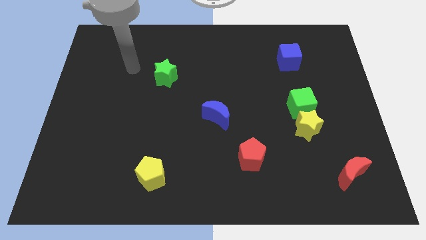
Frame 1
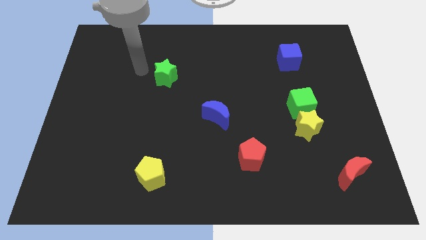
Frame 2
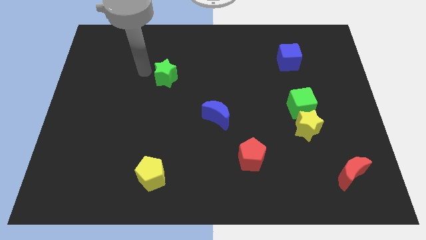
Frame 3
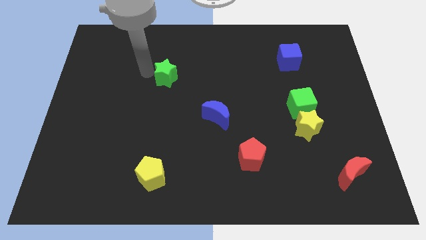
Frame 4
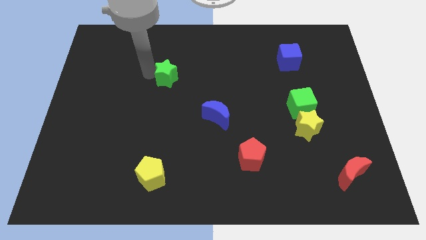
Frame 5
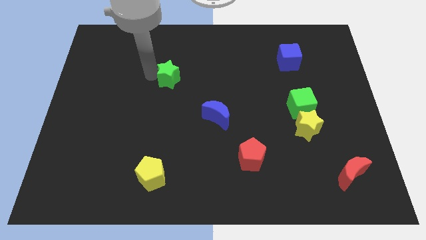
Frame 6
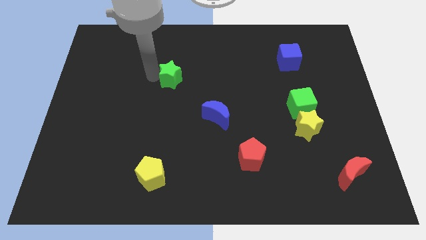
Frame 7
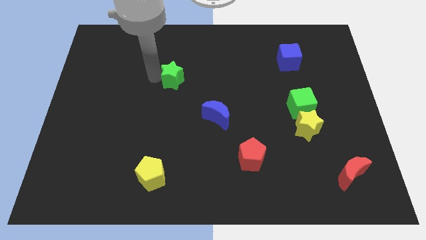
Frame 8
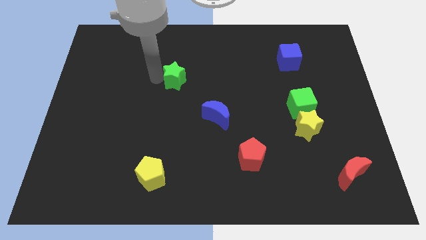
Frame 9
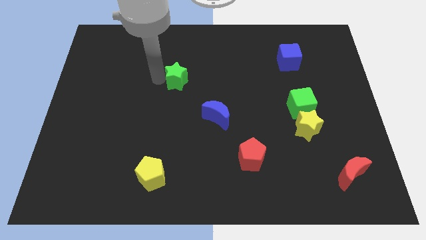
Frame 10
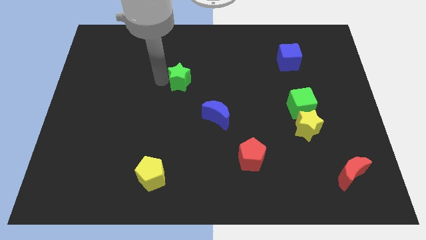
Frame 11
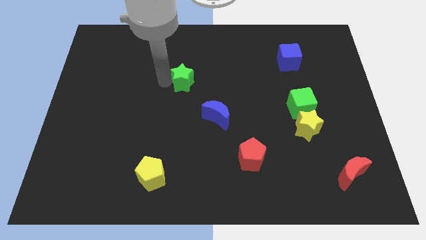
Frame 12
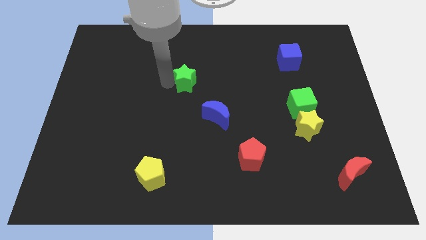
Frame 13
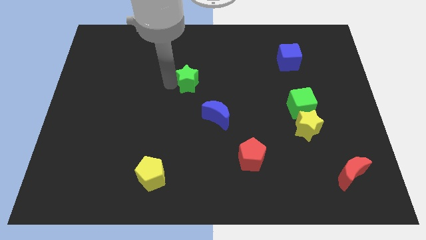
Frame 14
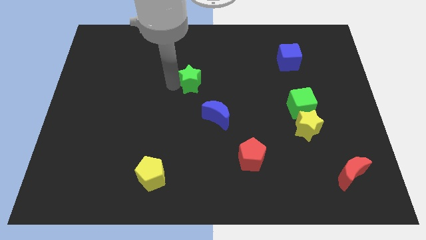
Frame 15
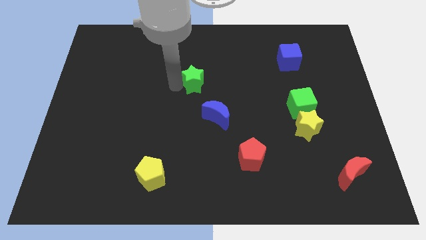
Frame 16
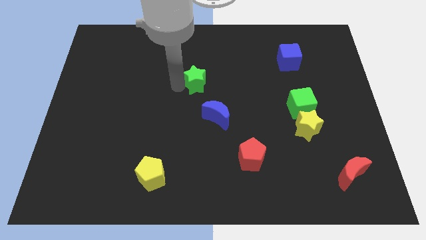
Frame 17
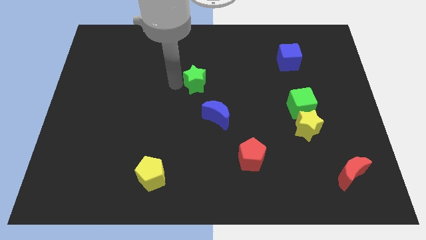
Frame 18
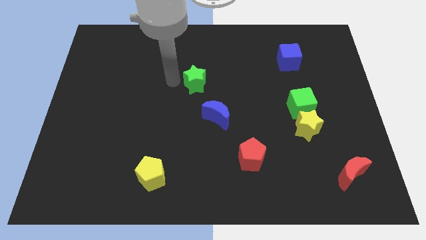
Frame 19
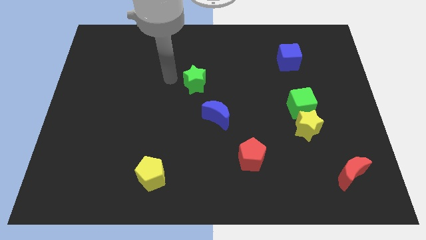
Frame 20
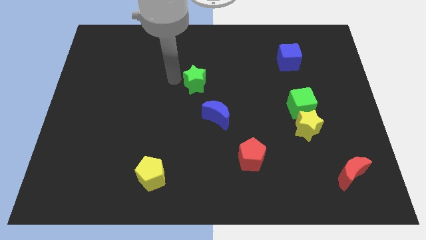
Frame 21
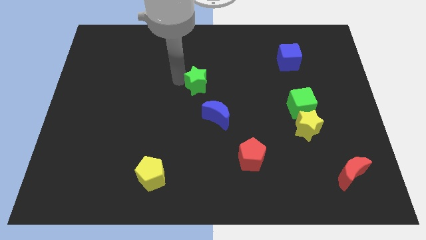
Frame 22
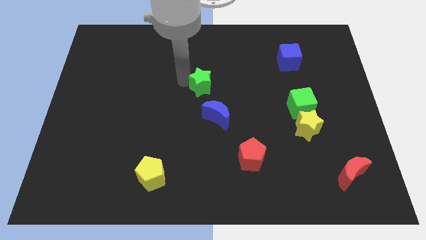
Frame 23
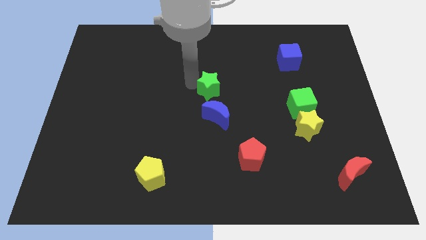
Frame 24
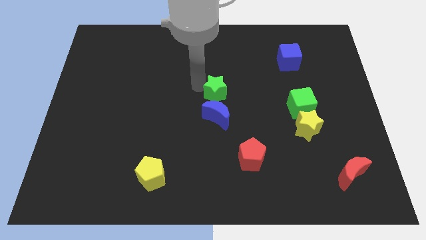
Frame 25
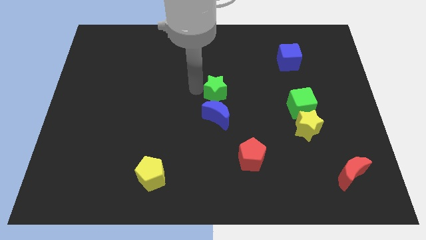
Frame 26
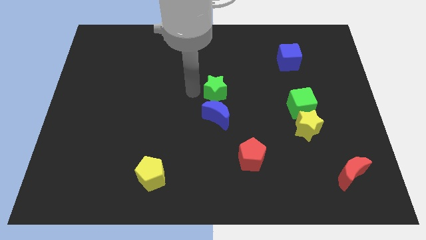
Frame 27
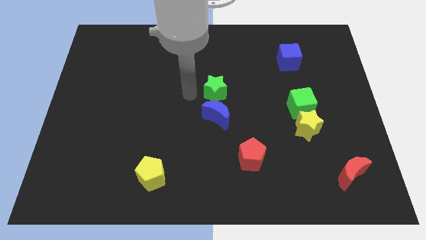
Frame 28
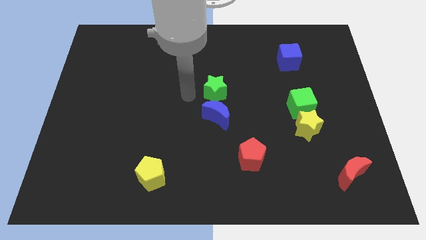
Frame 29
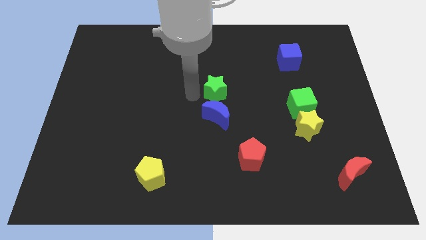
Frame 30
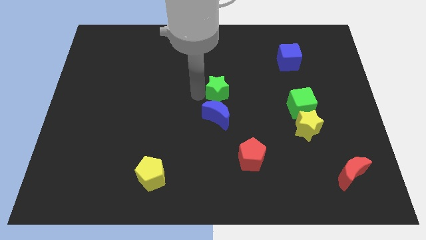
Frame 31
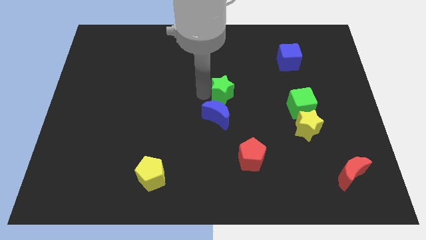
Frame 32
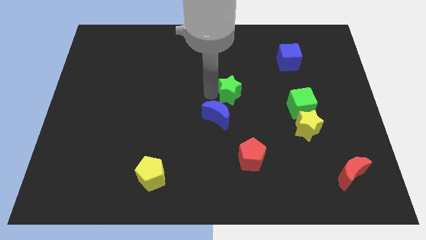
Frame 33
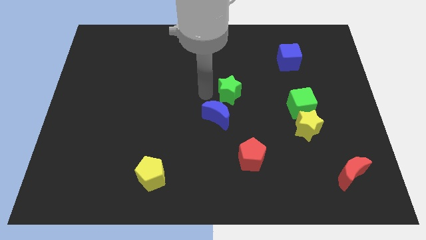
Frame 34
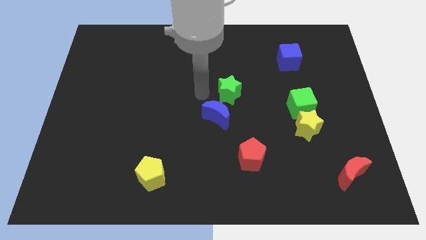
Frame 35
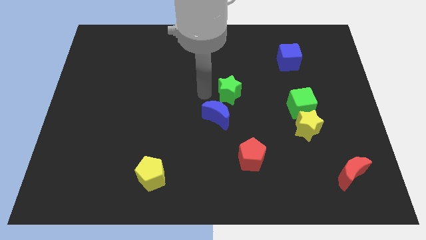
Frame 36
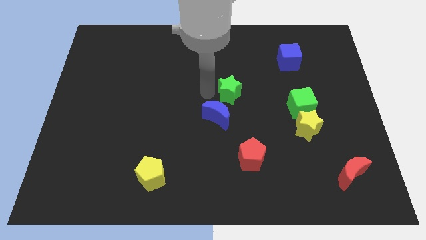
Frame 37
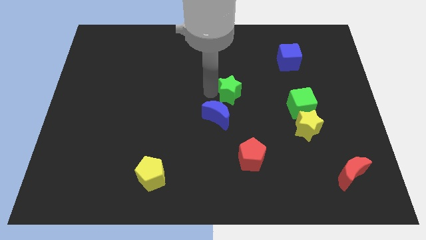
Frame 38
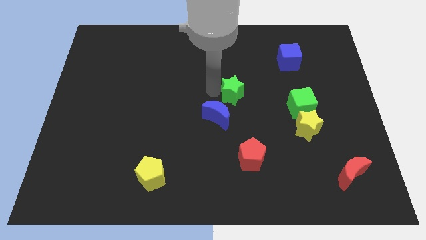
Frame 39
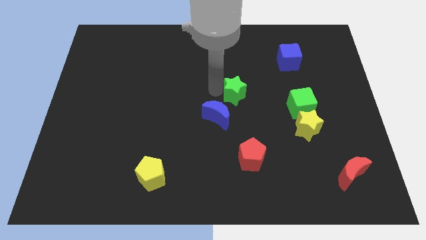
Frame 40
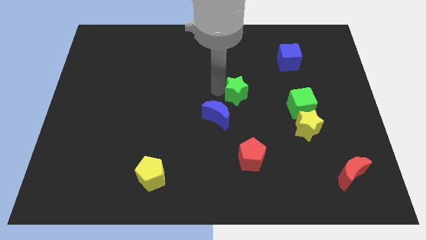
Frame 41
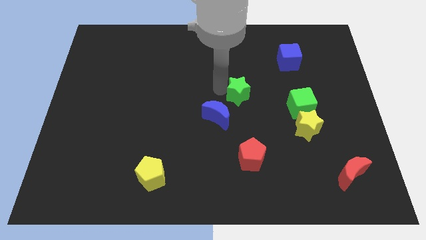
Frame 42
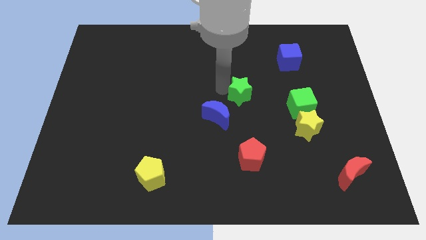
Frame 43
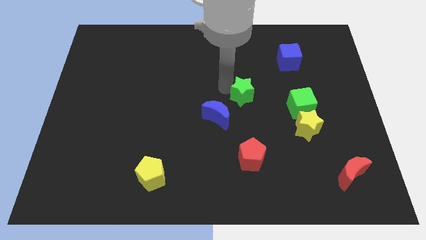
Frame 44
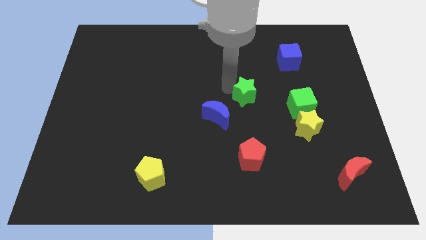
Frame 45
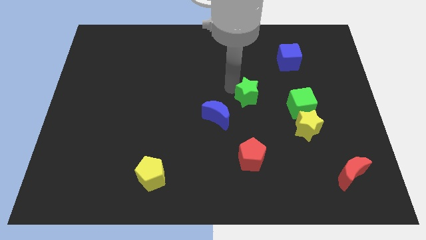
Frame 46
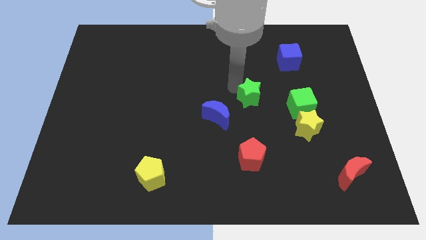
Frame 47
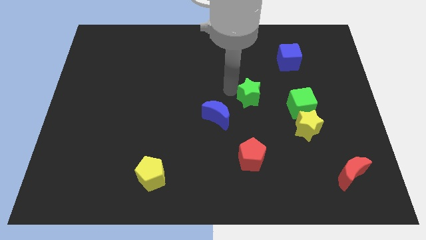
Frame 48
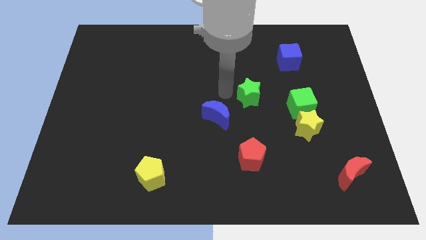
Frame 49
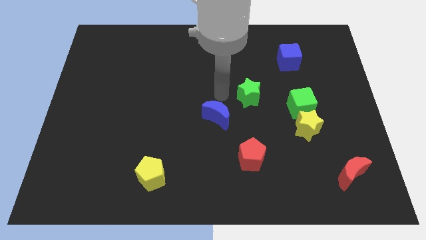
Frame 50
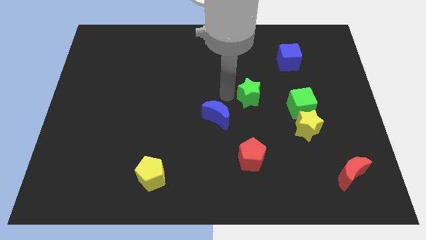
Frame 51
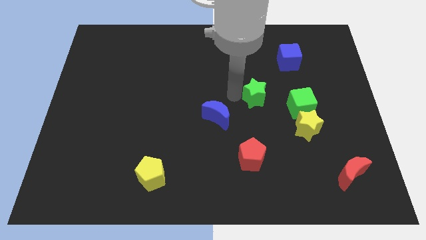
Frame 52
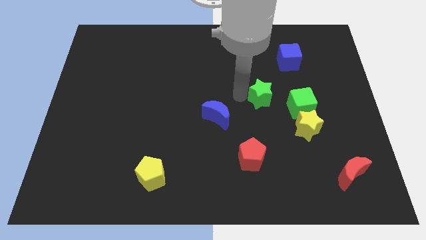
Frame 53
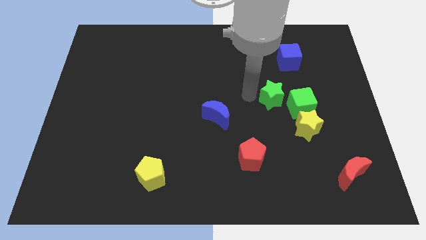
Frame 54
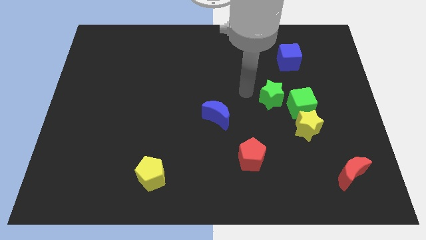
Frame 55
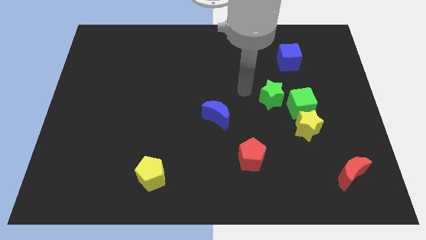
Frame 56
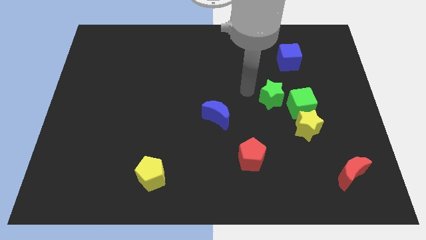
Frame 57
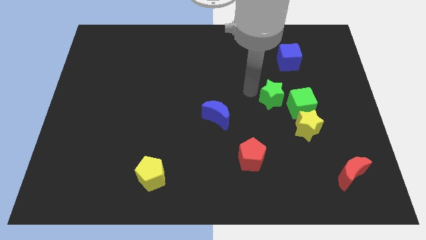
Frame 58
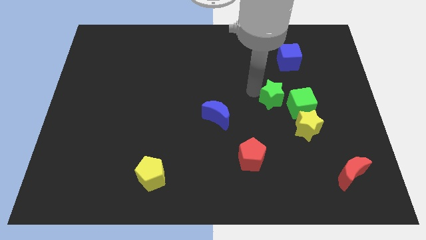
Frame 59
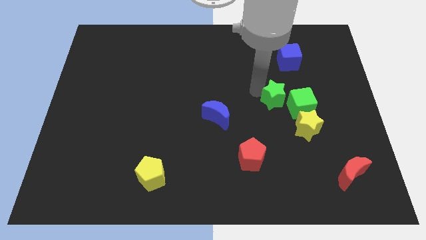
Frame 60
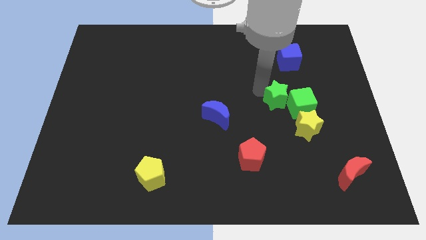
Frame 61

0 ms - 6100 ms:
push the green star towards the green cube

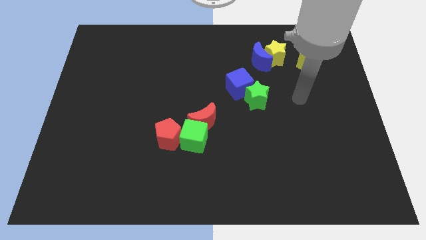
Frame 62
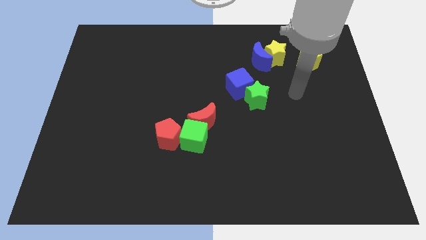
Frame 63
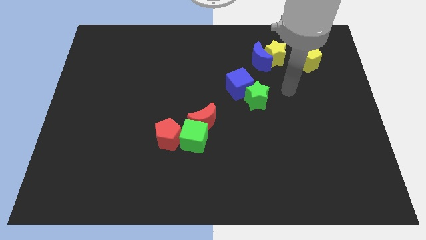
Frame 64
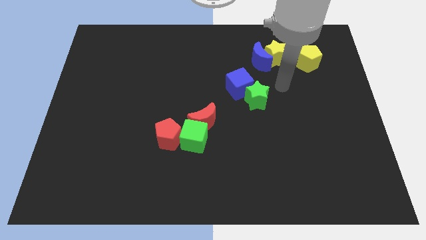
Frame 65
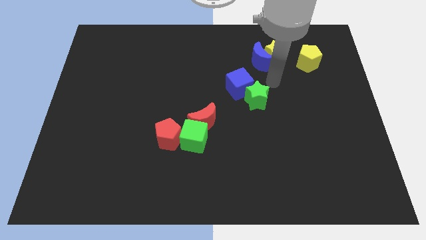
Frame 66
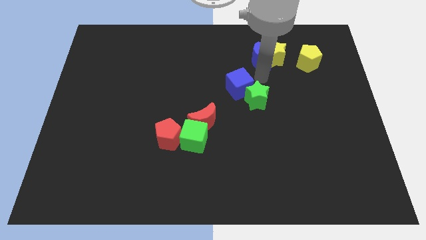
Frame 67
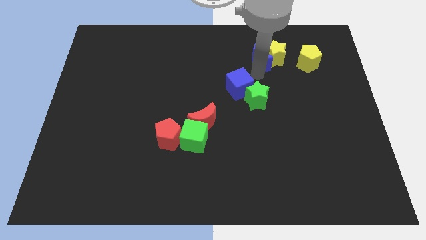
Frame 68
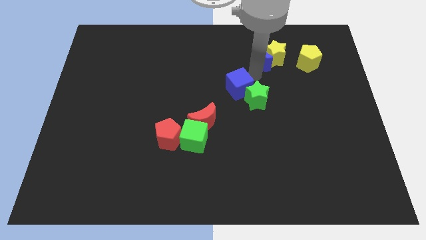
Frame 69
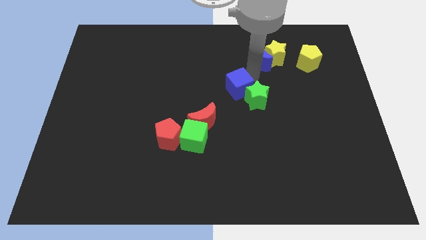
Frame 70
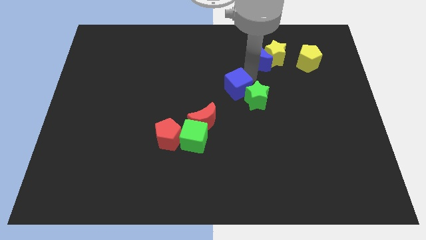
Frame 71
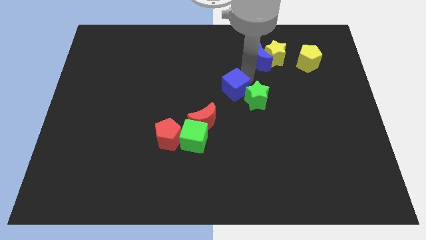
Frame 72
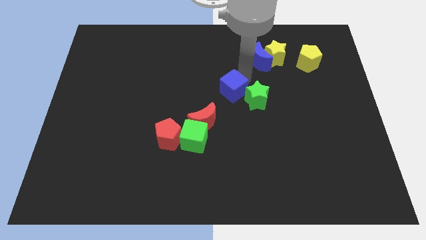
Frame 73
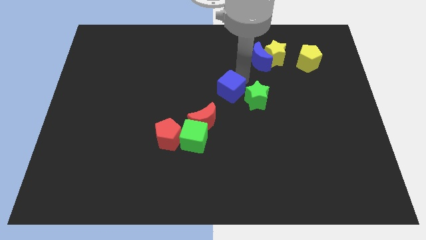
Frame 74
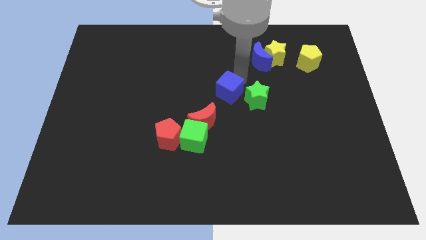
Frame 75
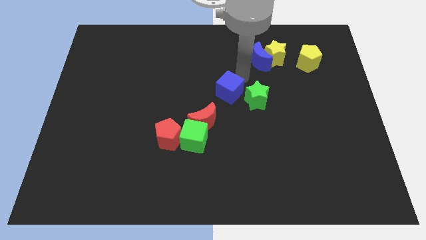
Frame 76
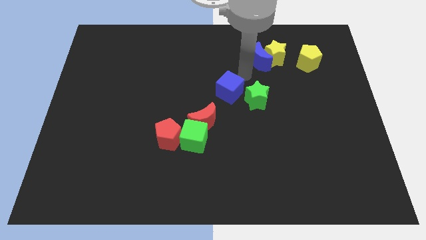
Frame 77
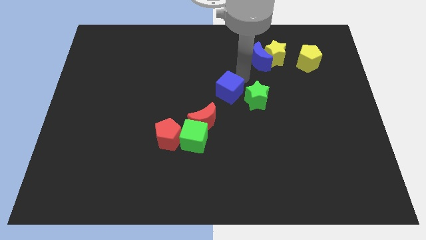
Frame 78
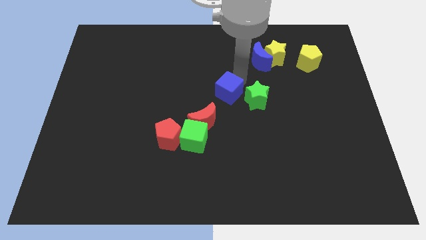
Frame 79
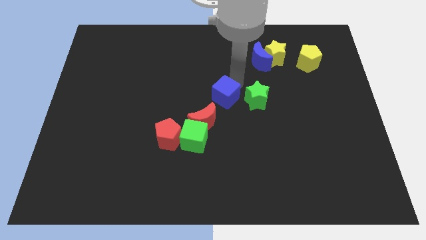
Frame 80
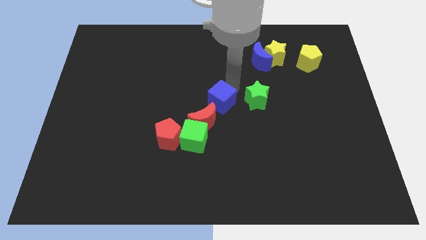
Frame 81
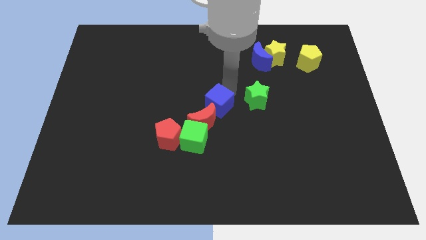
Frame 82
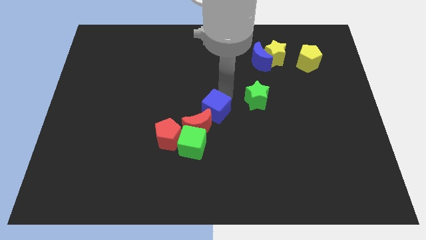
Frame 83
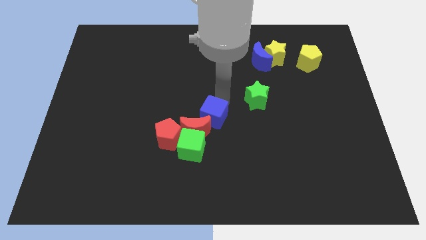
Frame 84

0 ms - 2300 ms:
move the blue cube to the red moon
